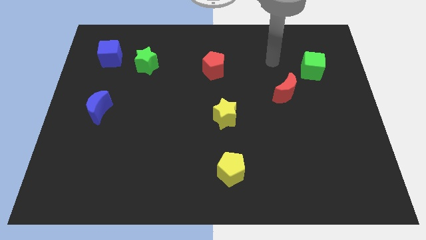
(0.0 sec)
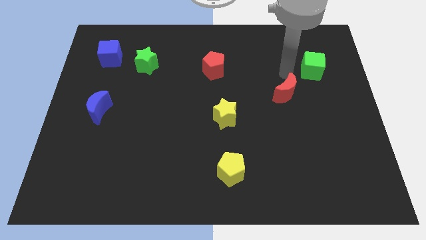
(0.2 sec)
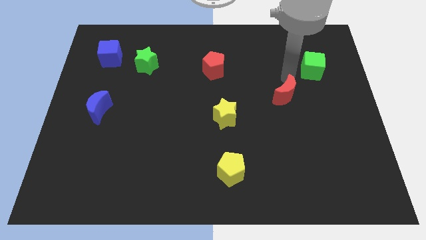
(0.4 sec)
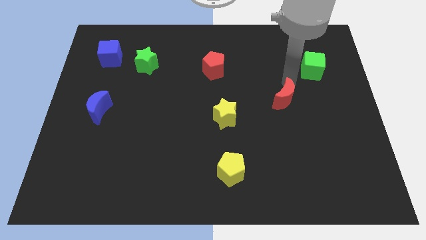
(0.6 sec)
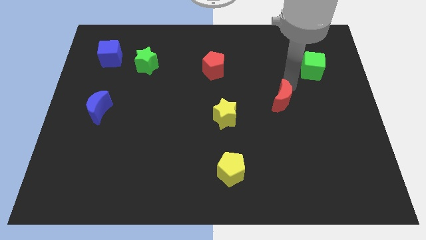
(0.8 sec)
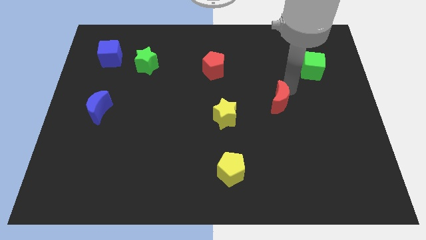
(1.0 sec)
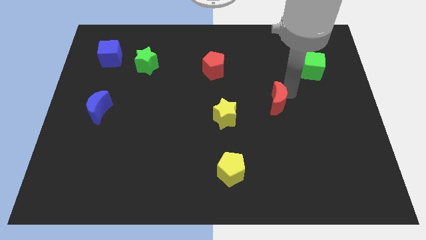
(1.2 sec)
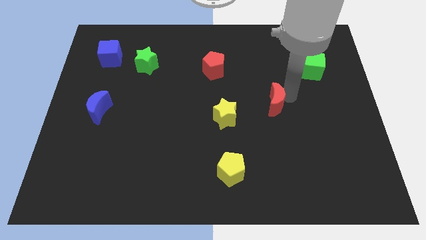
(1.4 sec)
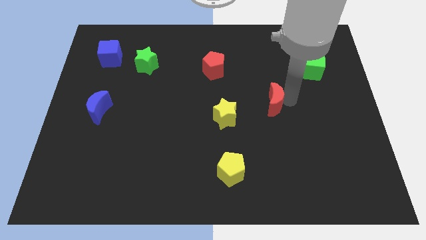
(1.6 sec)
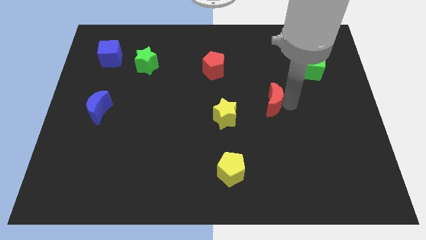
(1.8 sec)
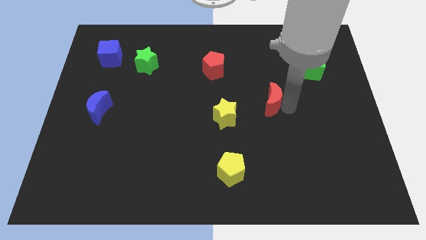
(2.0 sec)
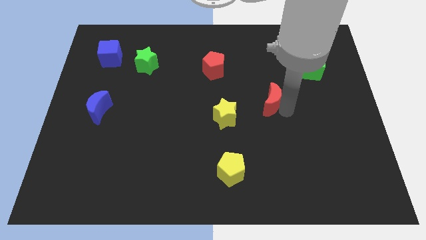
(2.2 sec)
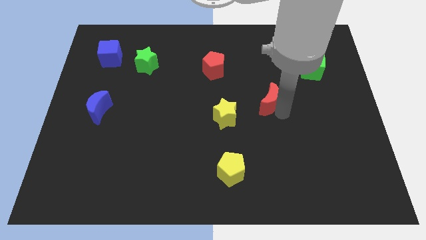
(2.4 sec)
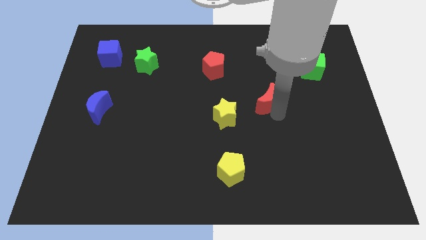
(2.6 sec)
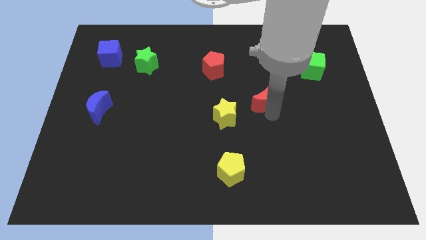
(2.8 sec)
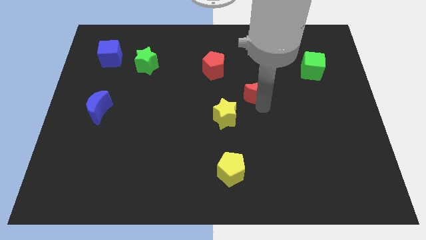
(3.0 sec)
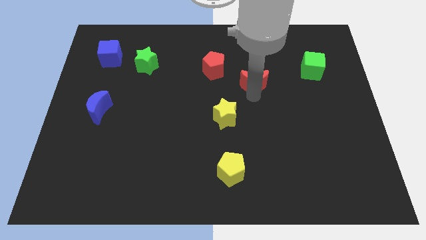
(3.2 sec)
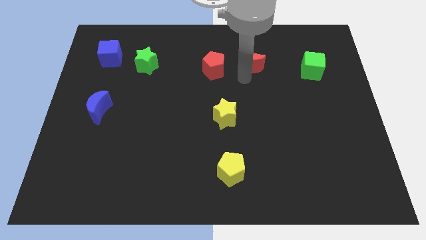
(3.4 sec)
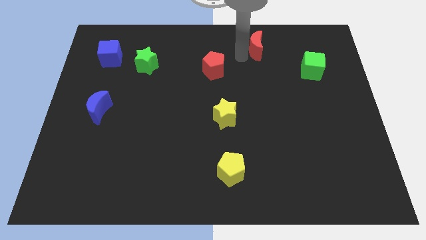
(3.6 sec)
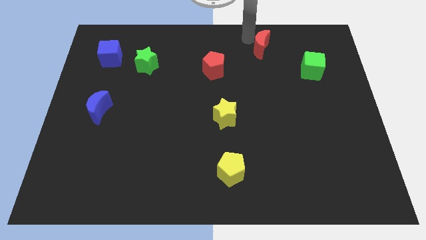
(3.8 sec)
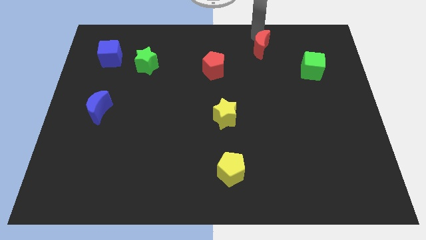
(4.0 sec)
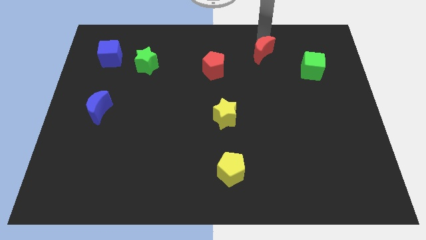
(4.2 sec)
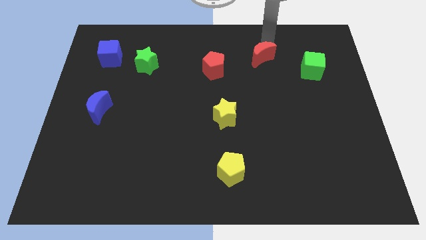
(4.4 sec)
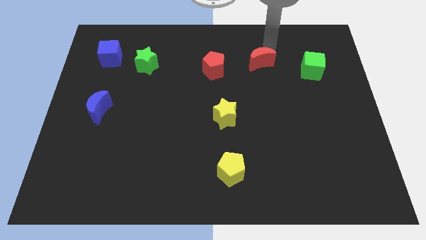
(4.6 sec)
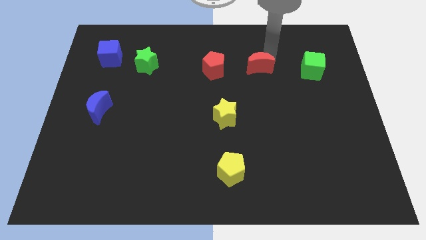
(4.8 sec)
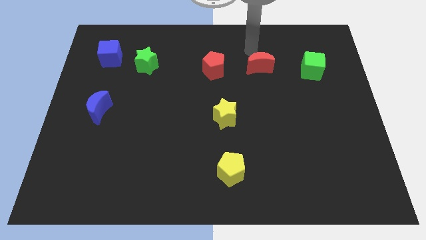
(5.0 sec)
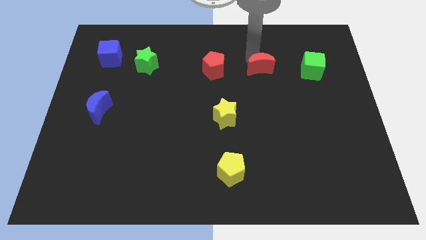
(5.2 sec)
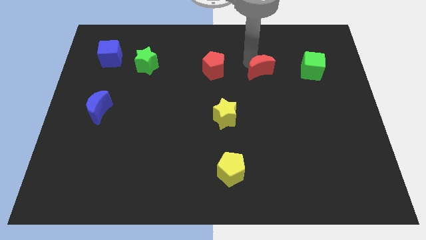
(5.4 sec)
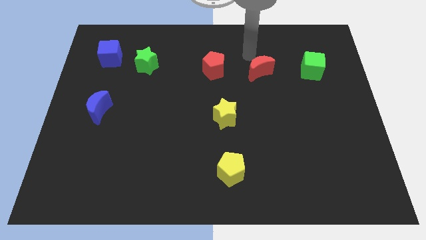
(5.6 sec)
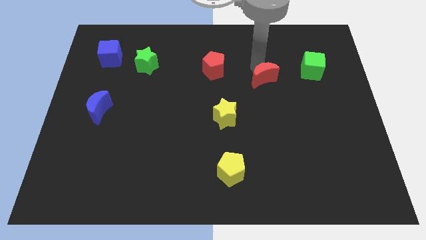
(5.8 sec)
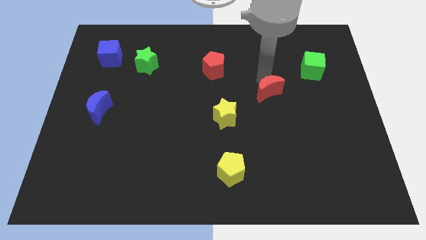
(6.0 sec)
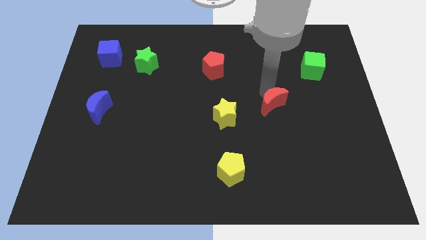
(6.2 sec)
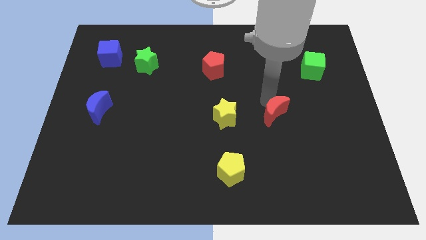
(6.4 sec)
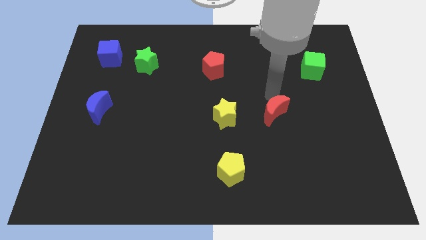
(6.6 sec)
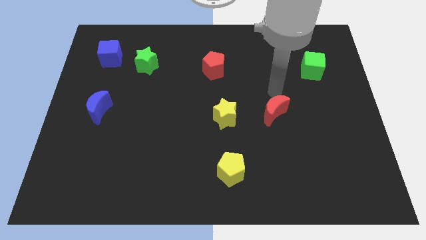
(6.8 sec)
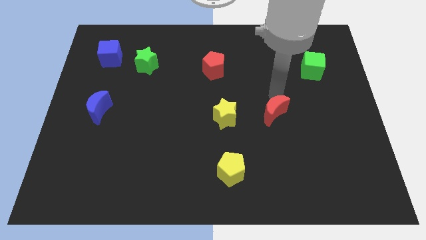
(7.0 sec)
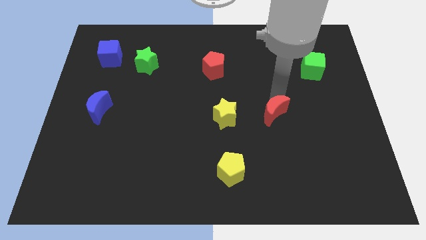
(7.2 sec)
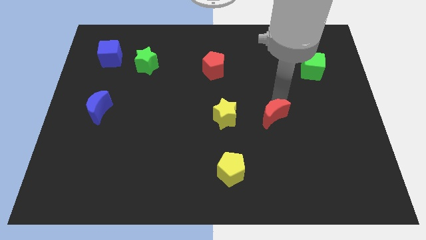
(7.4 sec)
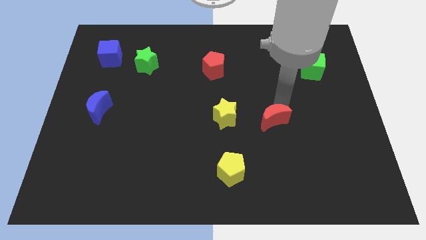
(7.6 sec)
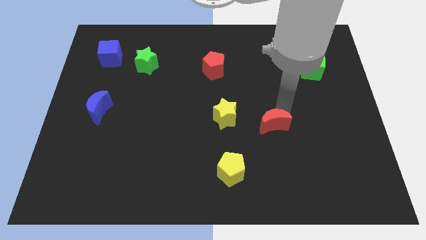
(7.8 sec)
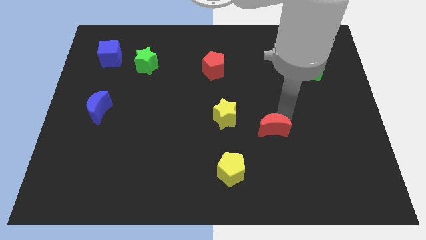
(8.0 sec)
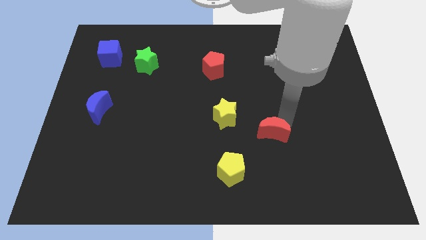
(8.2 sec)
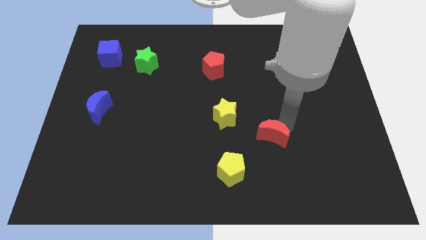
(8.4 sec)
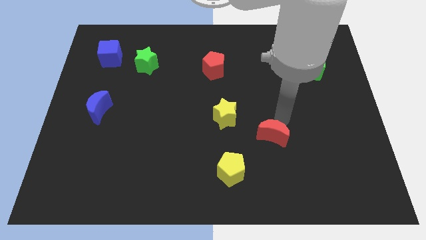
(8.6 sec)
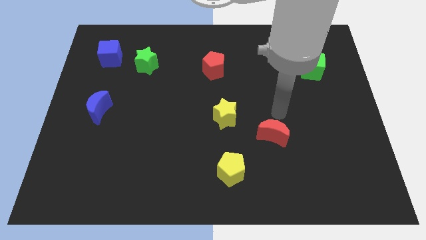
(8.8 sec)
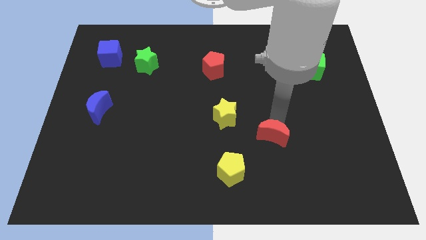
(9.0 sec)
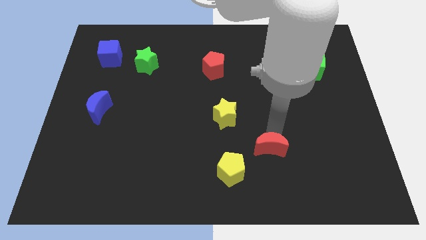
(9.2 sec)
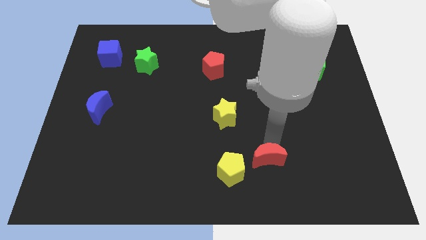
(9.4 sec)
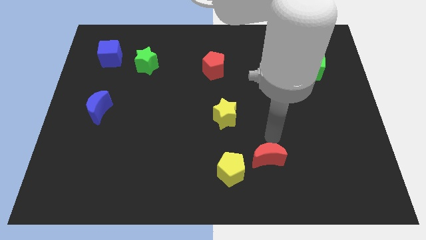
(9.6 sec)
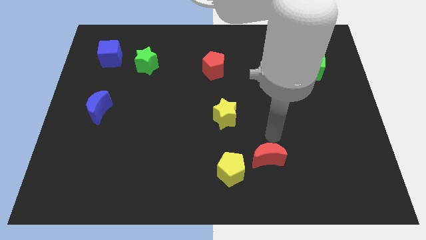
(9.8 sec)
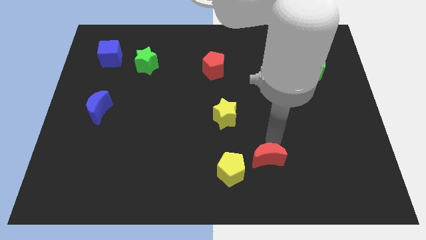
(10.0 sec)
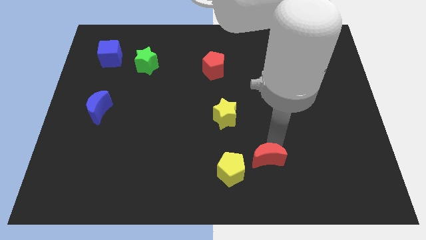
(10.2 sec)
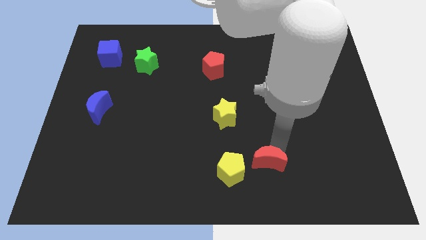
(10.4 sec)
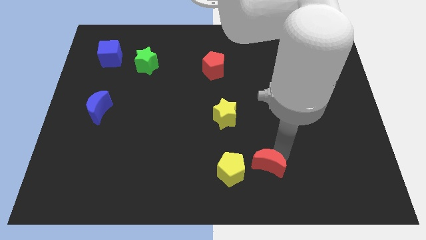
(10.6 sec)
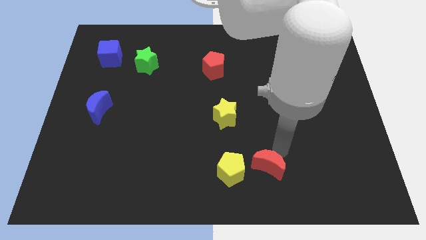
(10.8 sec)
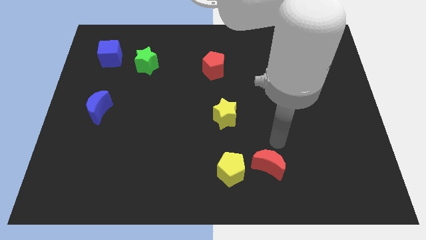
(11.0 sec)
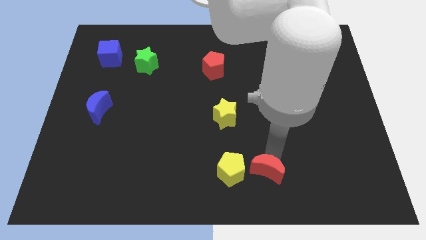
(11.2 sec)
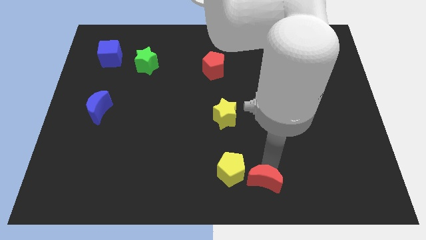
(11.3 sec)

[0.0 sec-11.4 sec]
slide the red moon to the bottom side

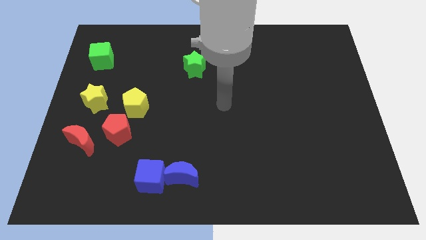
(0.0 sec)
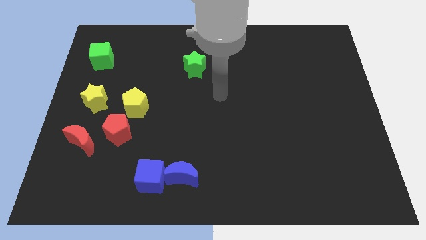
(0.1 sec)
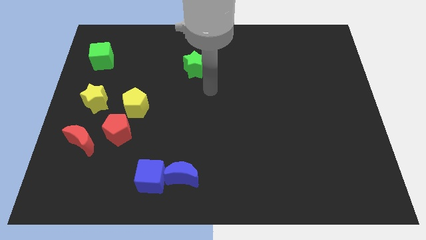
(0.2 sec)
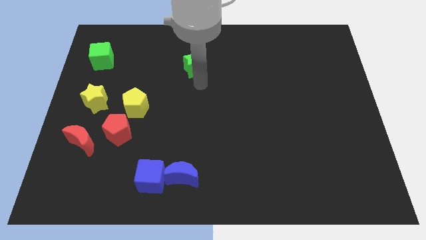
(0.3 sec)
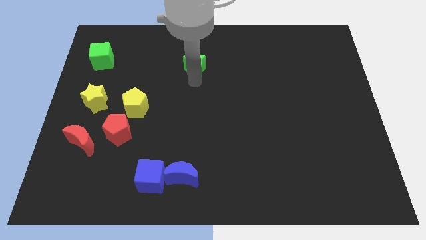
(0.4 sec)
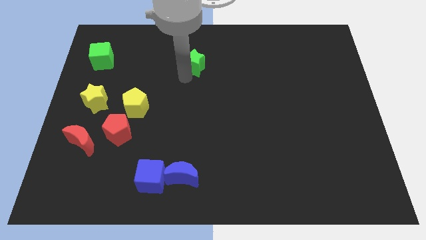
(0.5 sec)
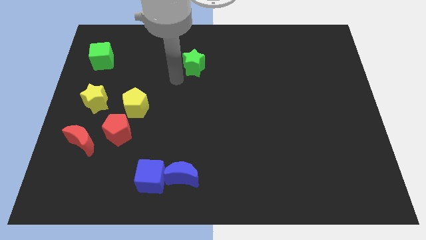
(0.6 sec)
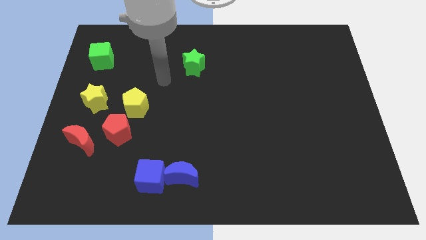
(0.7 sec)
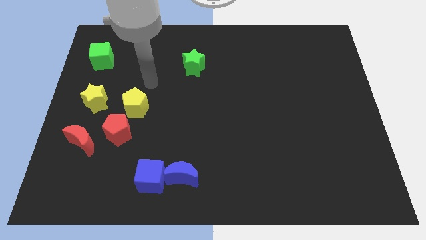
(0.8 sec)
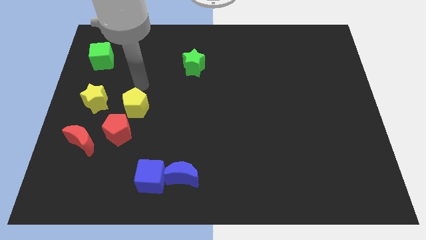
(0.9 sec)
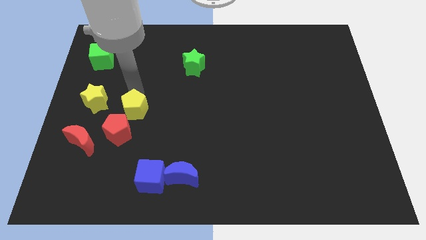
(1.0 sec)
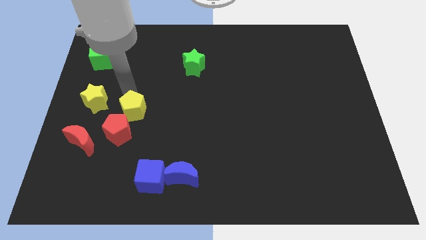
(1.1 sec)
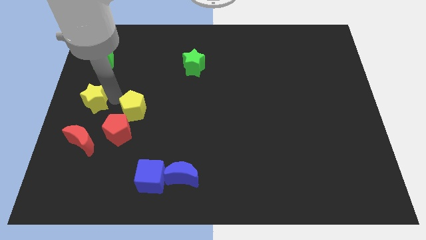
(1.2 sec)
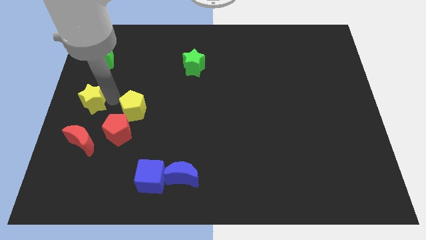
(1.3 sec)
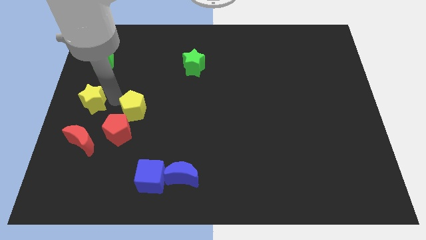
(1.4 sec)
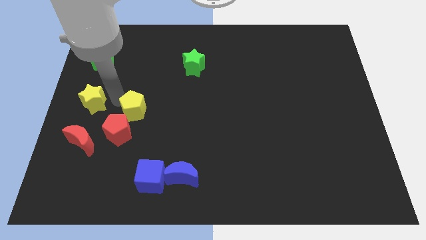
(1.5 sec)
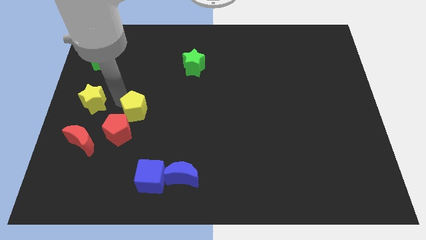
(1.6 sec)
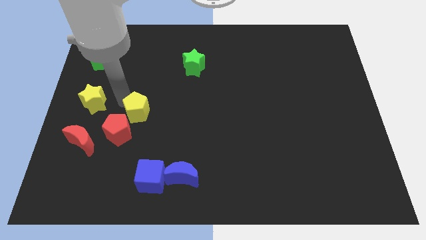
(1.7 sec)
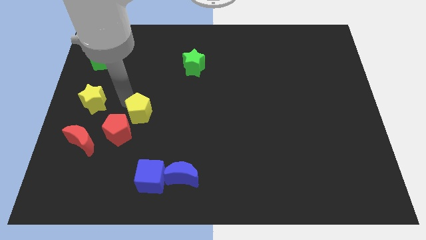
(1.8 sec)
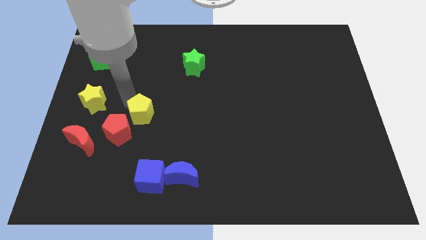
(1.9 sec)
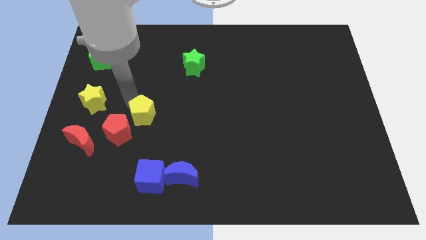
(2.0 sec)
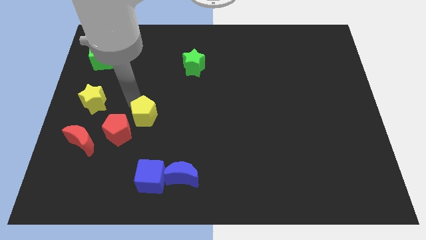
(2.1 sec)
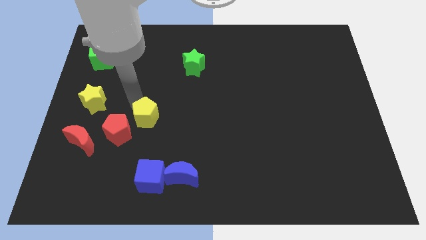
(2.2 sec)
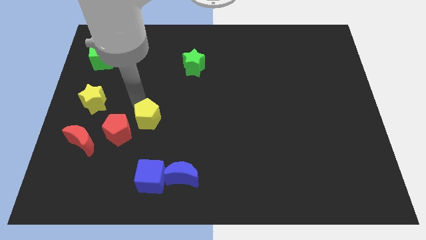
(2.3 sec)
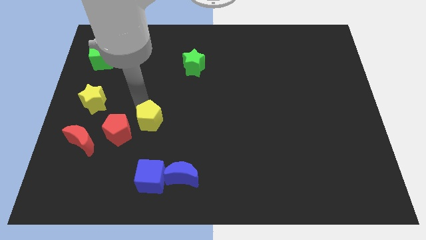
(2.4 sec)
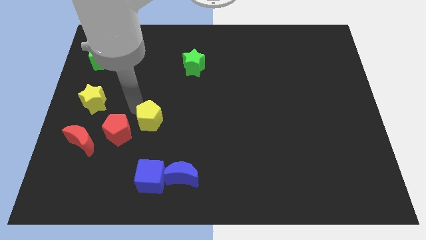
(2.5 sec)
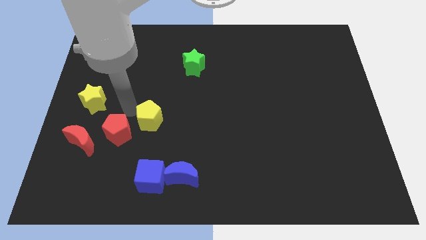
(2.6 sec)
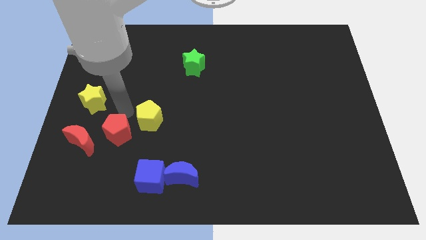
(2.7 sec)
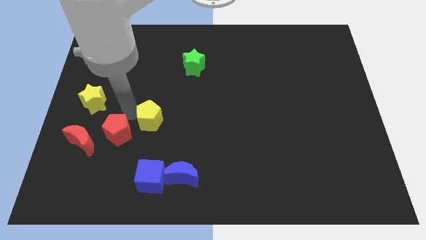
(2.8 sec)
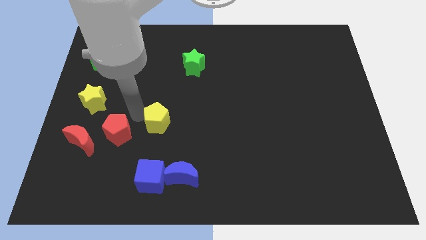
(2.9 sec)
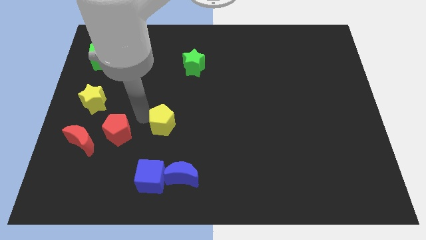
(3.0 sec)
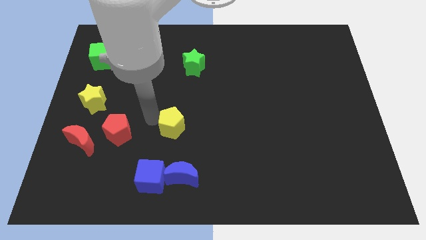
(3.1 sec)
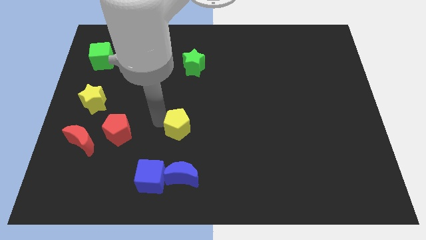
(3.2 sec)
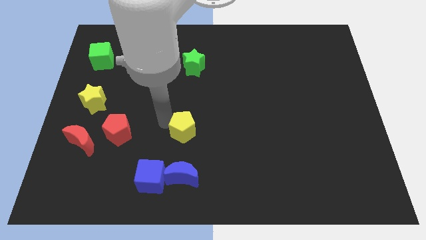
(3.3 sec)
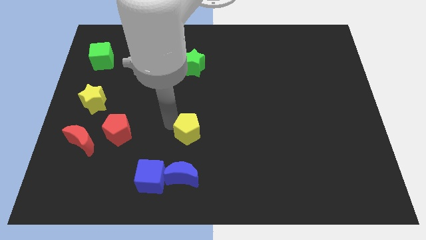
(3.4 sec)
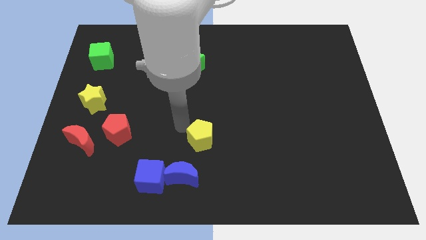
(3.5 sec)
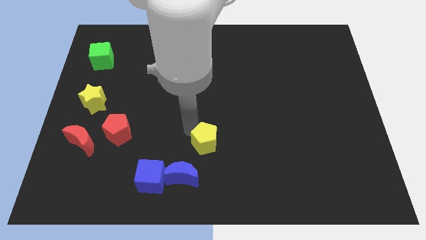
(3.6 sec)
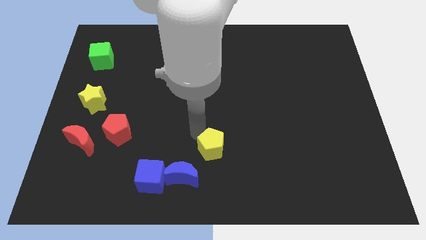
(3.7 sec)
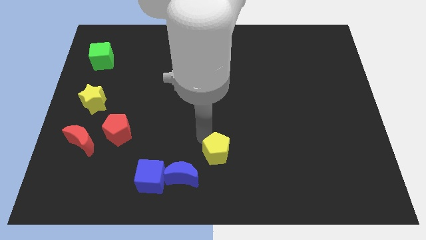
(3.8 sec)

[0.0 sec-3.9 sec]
push the yellow pentagon to the bottom
